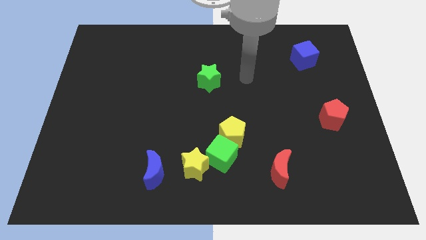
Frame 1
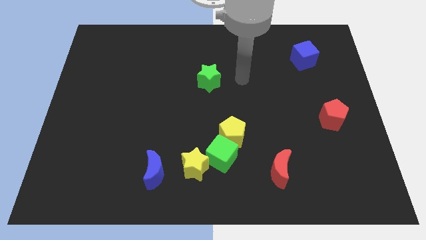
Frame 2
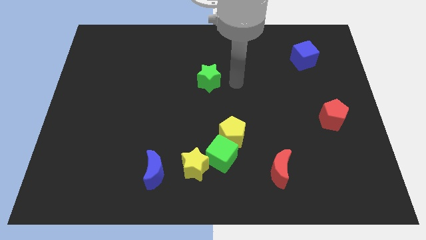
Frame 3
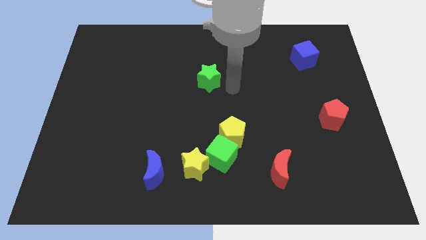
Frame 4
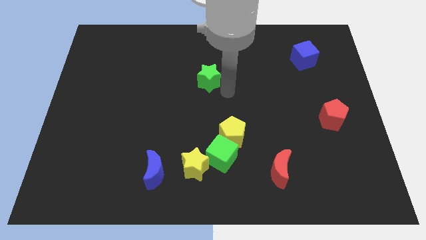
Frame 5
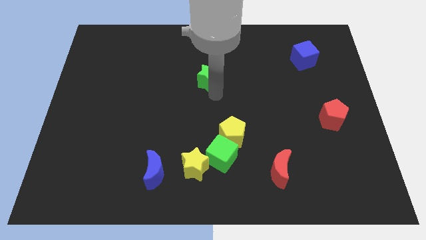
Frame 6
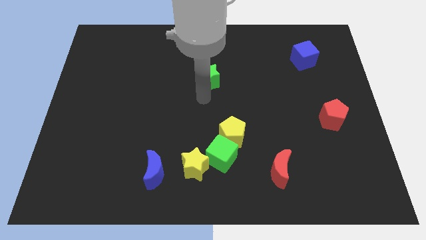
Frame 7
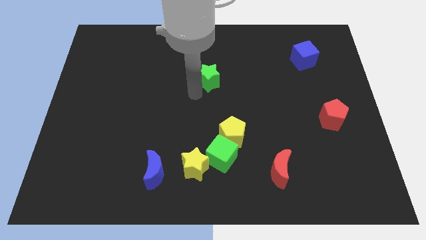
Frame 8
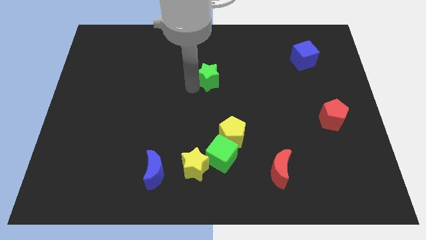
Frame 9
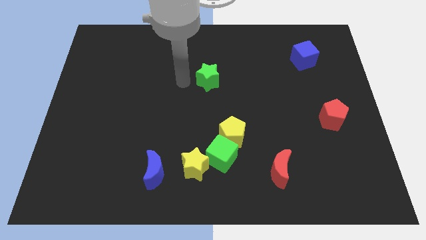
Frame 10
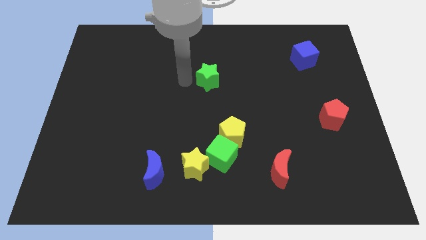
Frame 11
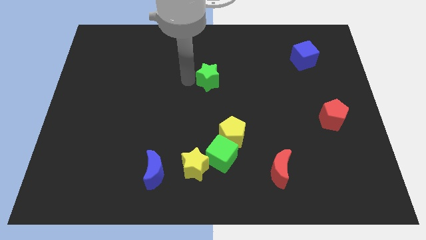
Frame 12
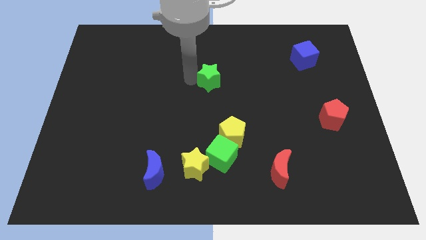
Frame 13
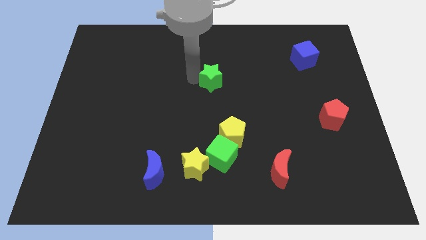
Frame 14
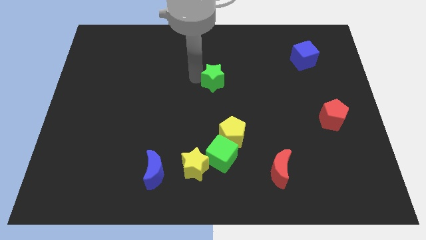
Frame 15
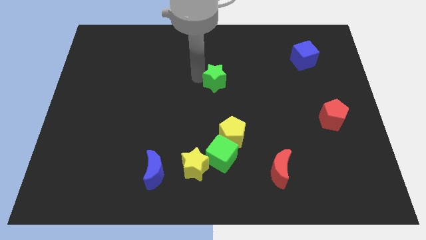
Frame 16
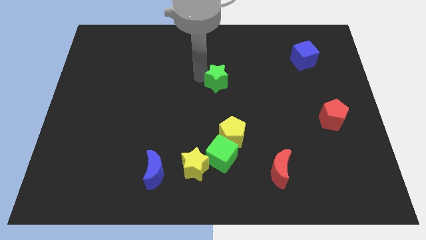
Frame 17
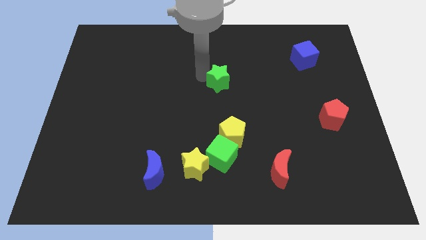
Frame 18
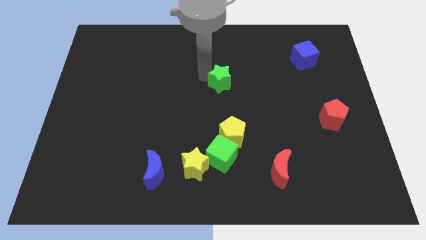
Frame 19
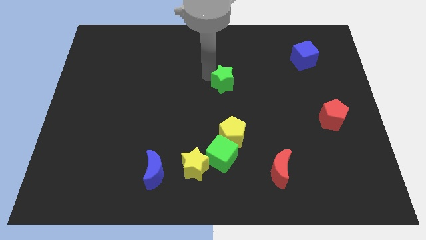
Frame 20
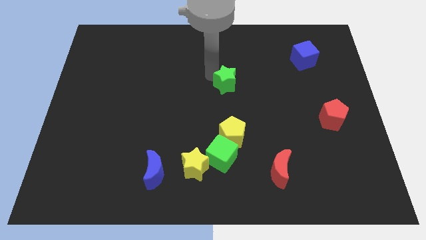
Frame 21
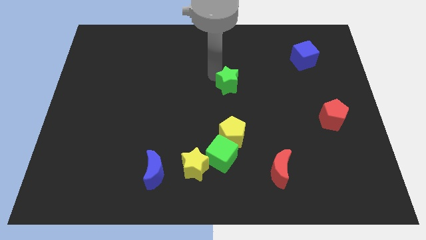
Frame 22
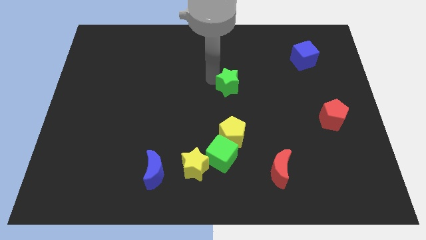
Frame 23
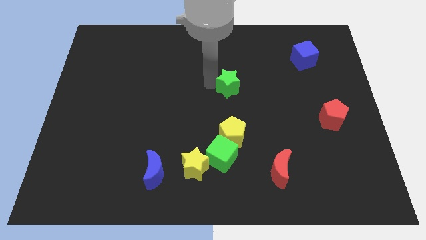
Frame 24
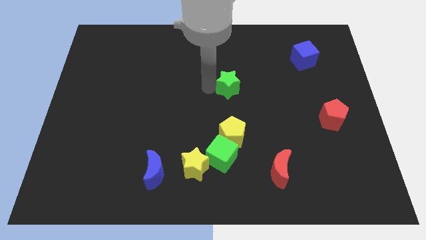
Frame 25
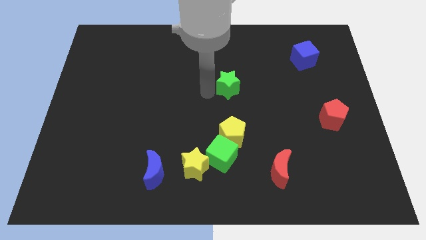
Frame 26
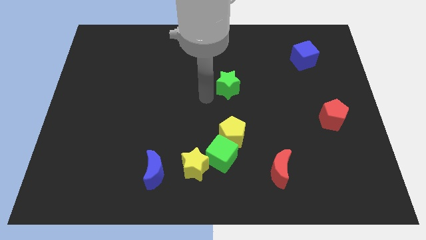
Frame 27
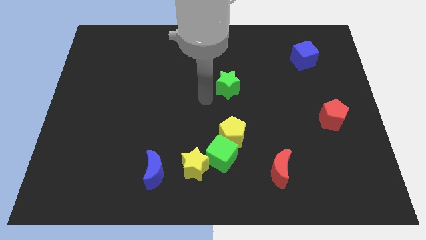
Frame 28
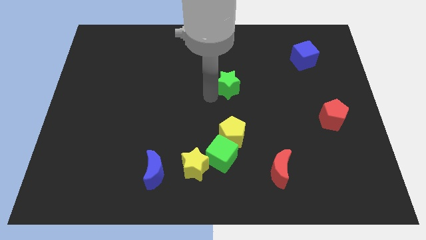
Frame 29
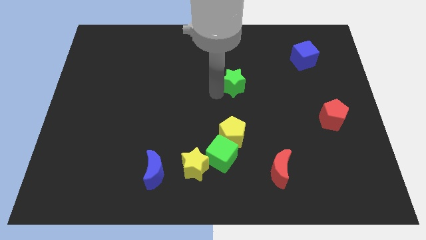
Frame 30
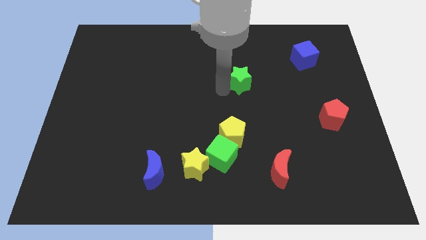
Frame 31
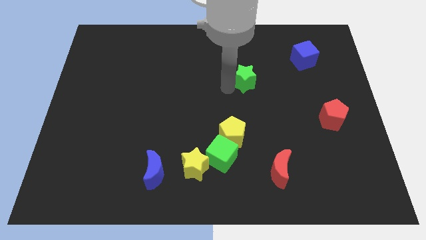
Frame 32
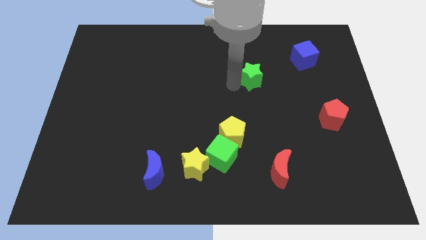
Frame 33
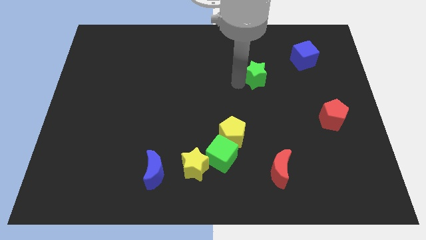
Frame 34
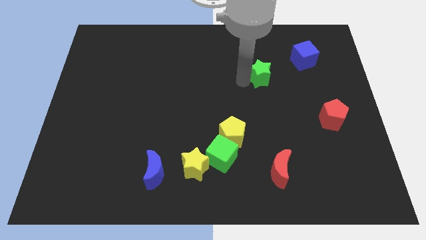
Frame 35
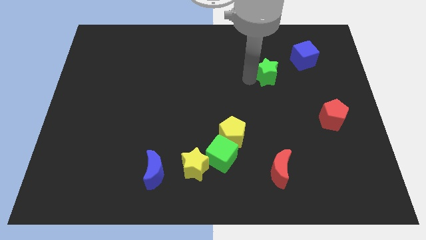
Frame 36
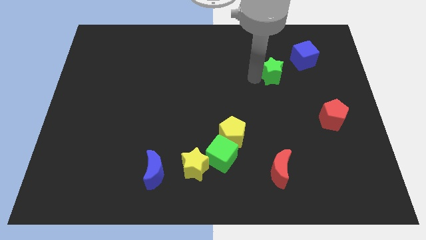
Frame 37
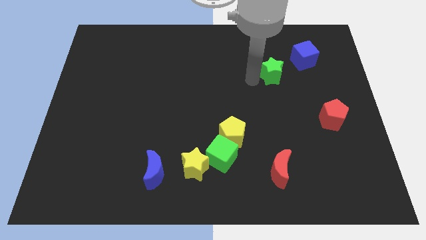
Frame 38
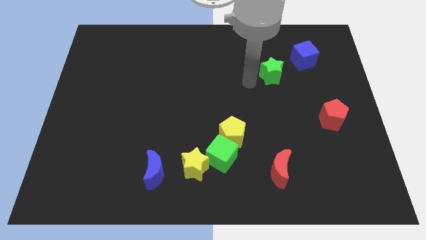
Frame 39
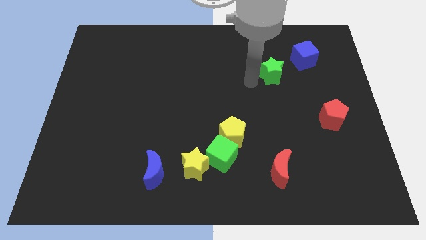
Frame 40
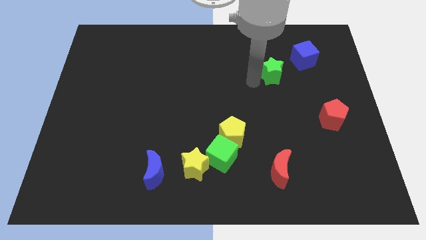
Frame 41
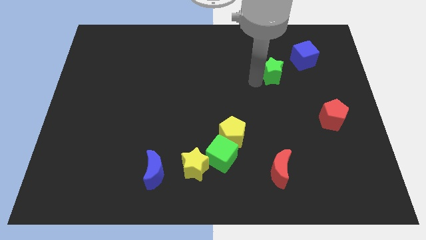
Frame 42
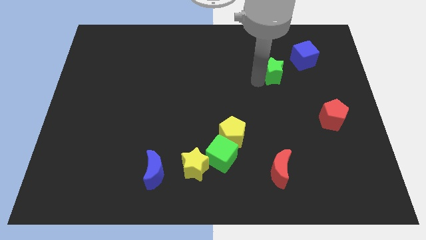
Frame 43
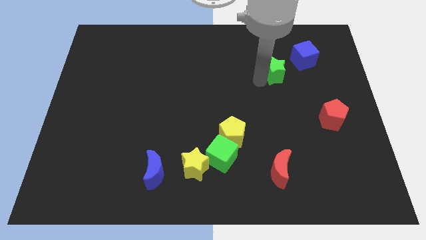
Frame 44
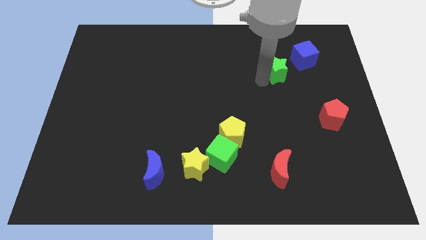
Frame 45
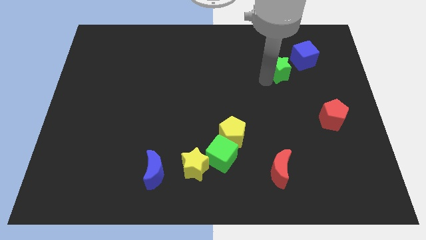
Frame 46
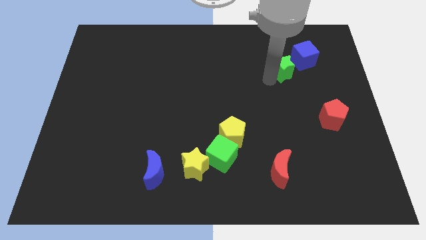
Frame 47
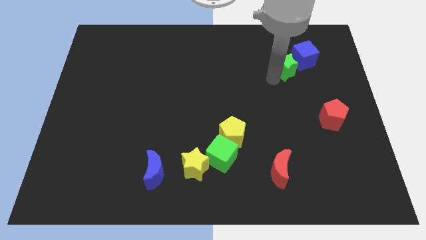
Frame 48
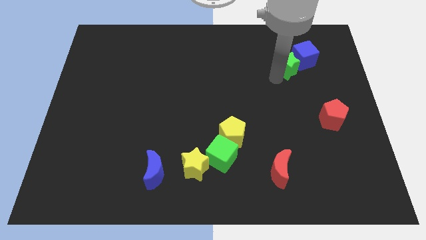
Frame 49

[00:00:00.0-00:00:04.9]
put the green star towards the blue cube

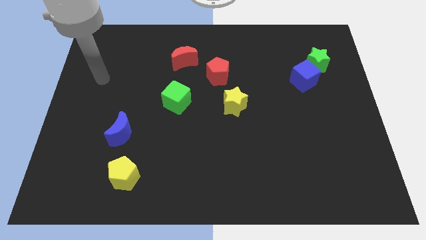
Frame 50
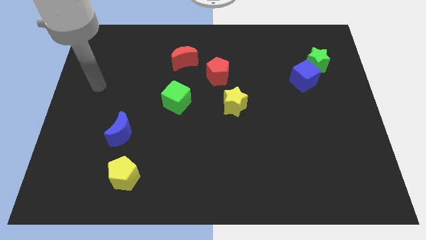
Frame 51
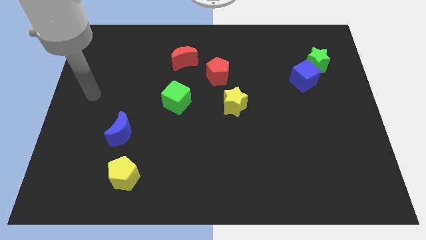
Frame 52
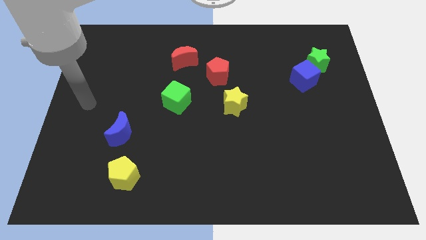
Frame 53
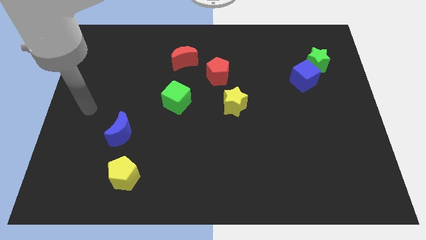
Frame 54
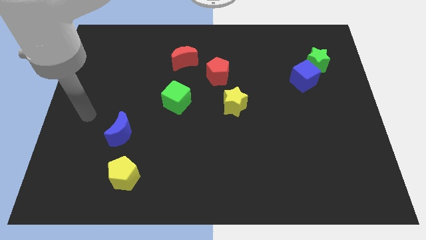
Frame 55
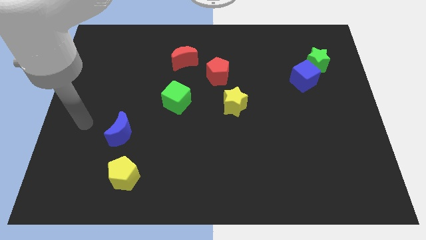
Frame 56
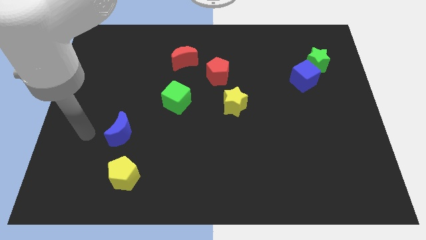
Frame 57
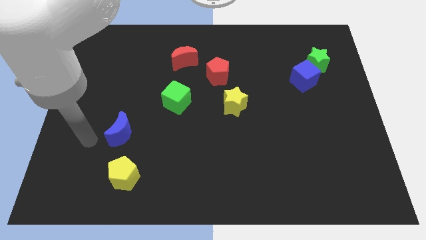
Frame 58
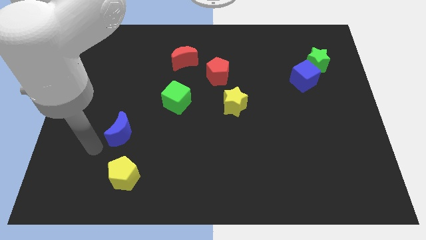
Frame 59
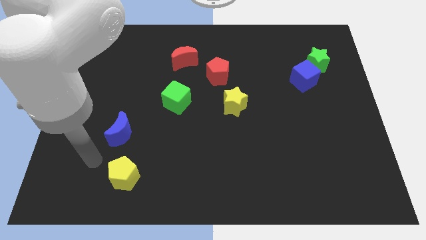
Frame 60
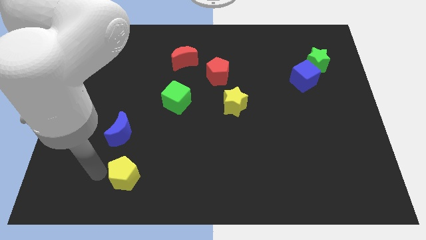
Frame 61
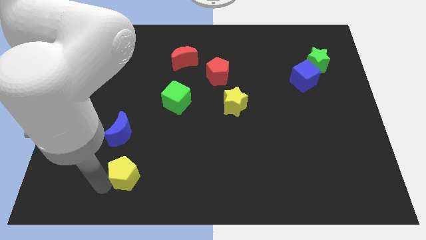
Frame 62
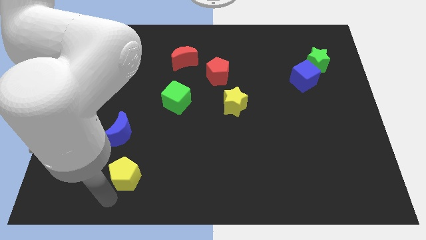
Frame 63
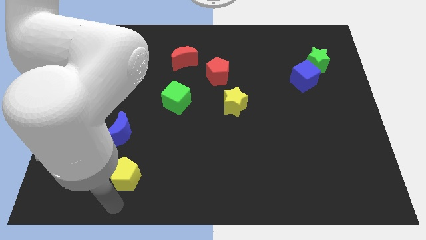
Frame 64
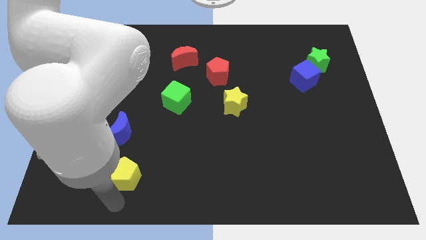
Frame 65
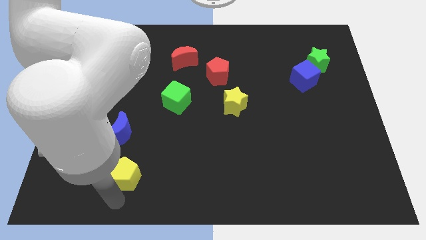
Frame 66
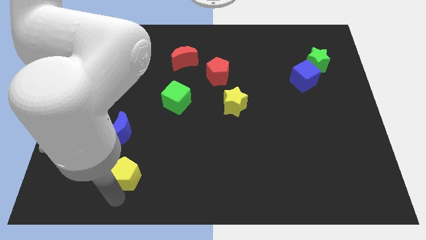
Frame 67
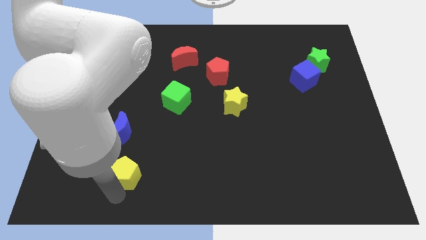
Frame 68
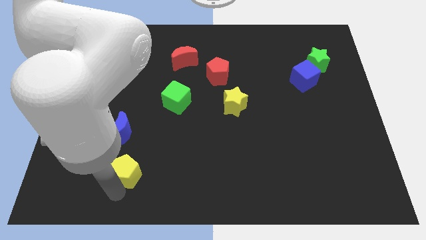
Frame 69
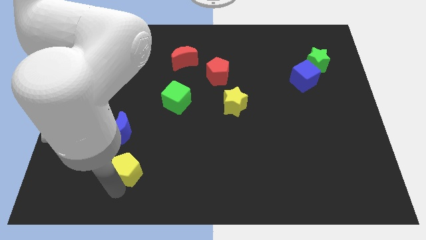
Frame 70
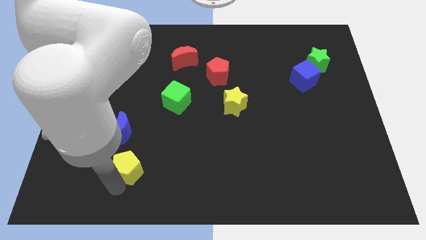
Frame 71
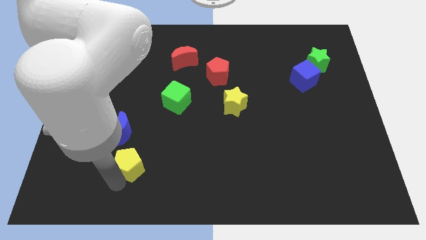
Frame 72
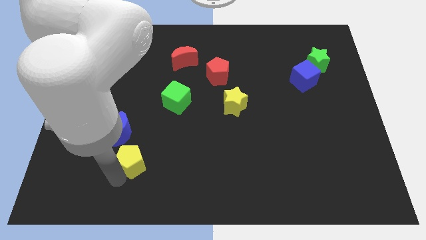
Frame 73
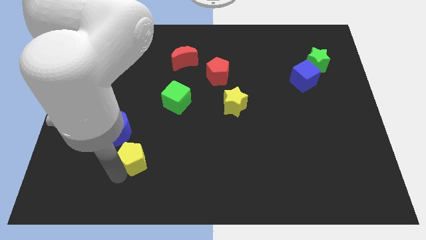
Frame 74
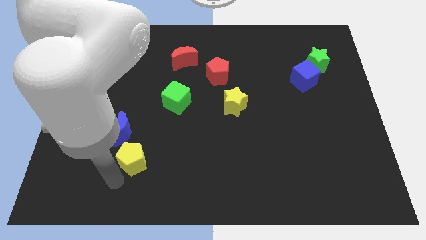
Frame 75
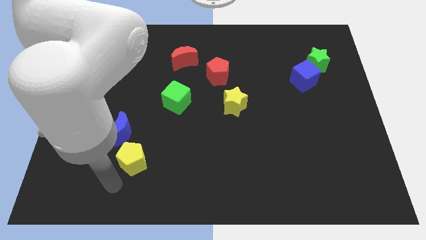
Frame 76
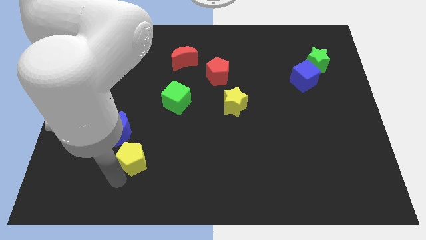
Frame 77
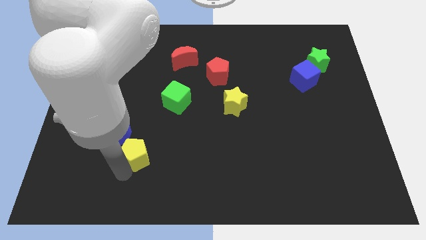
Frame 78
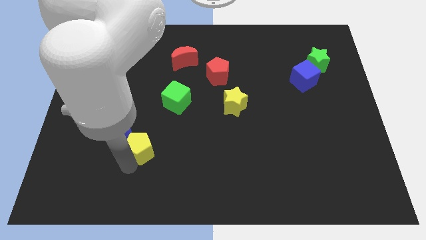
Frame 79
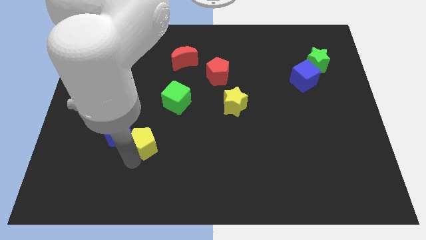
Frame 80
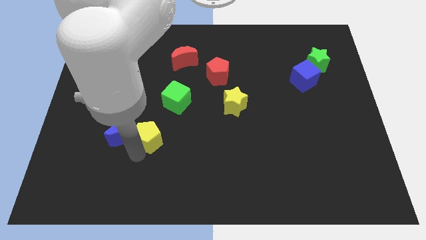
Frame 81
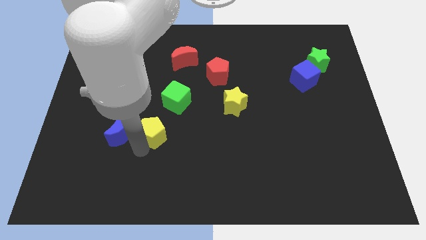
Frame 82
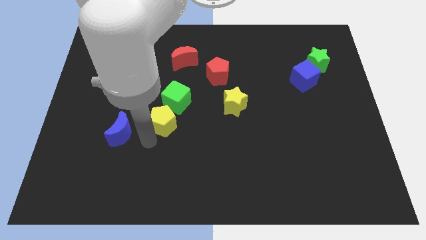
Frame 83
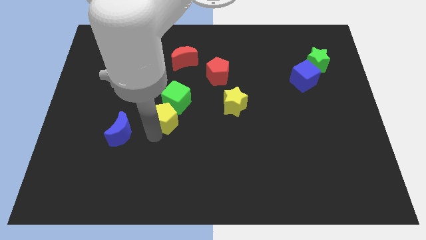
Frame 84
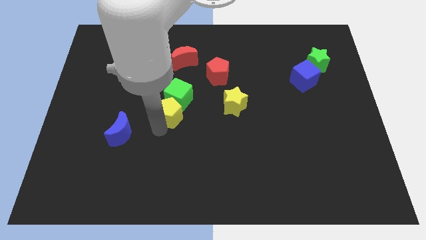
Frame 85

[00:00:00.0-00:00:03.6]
put the yellow pentagon to the green cube
